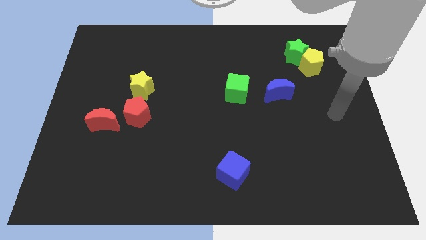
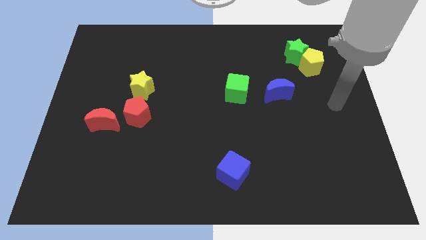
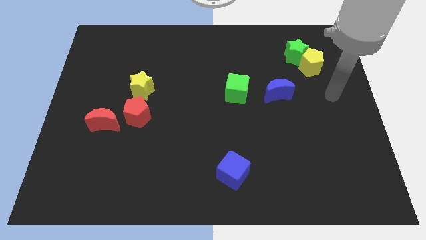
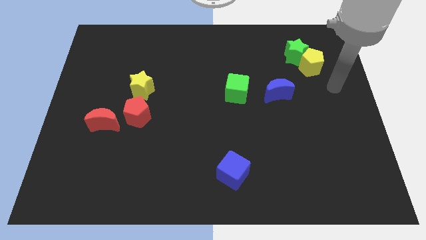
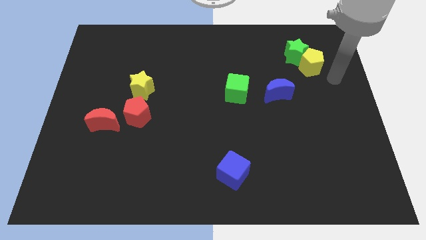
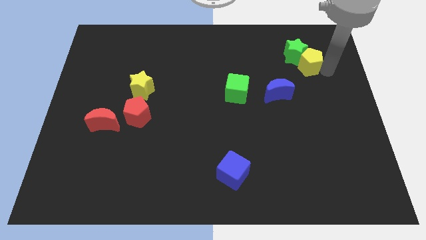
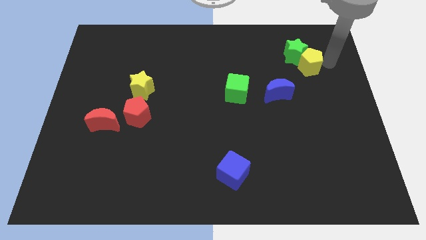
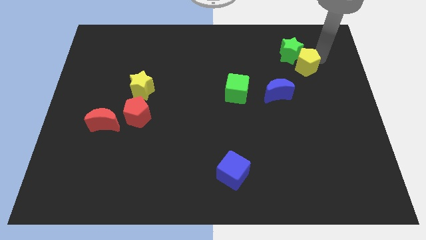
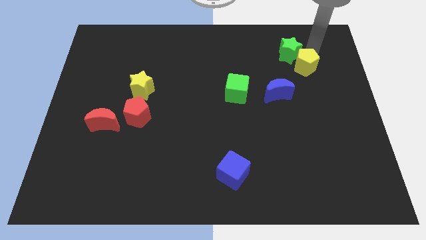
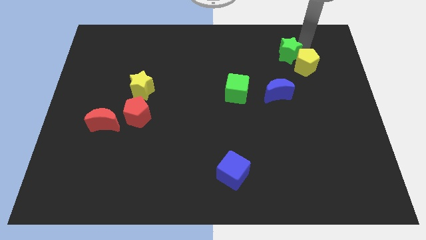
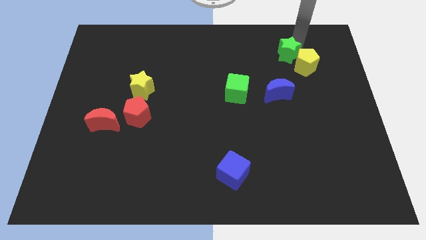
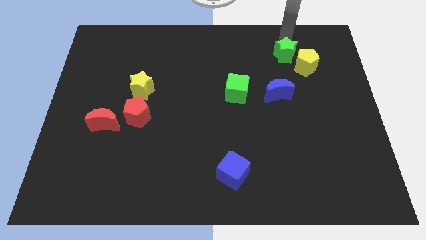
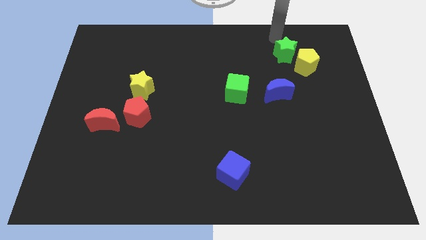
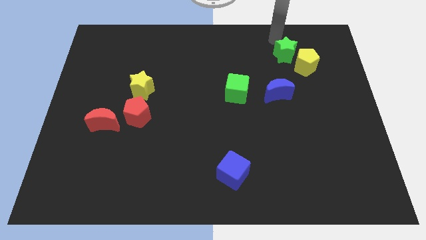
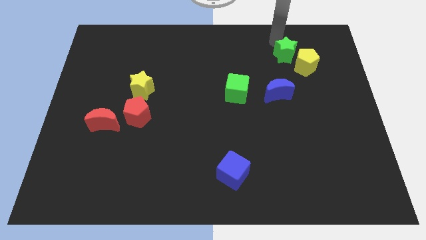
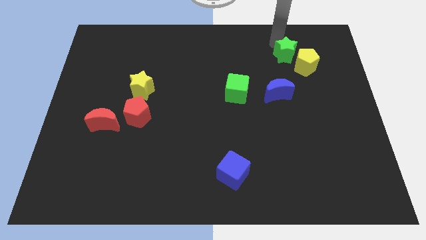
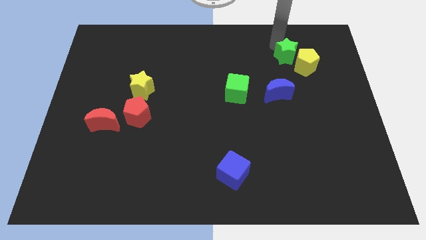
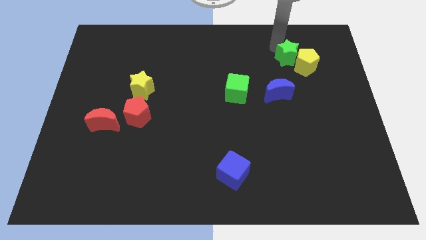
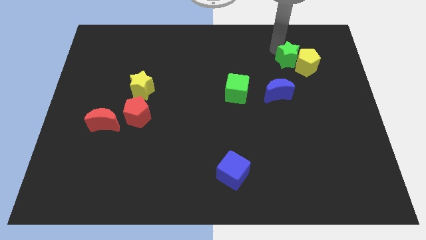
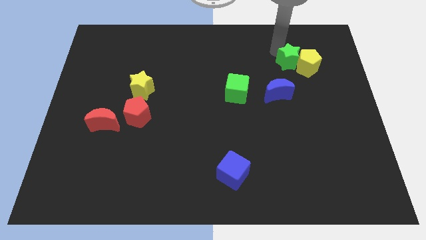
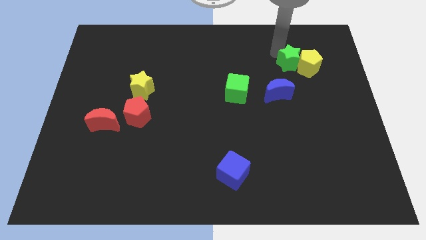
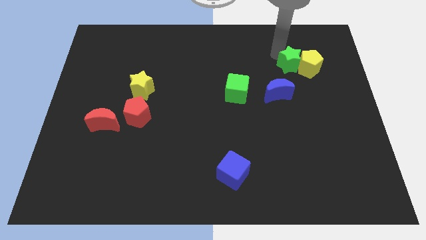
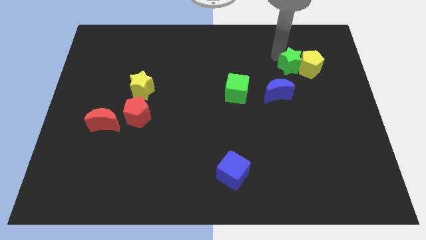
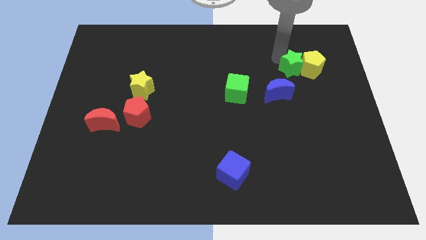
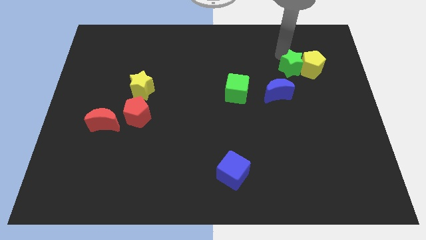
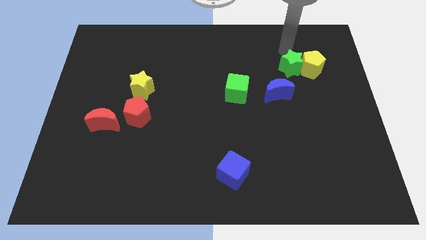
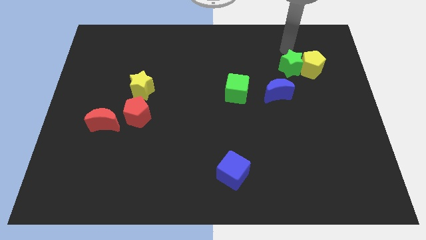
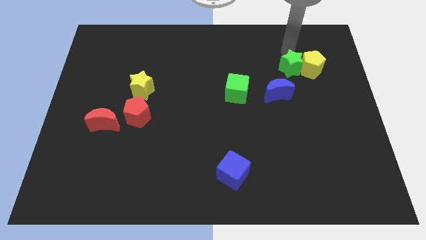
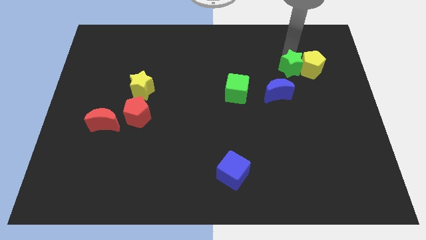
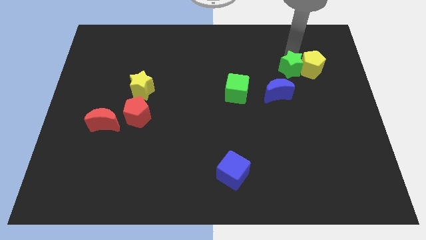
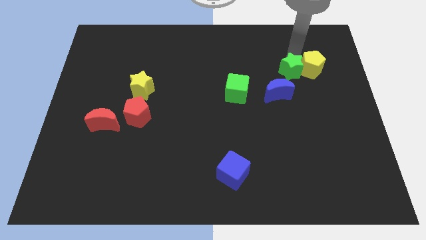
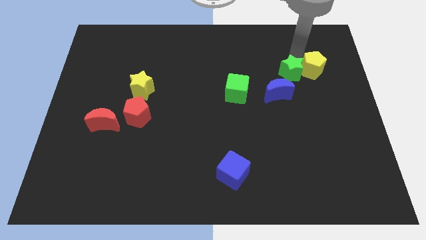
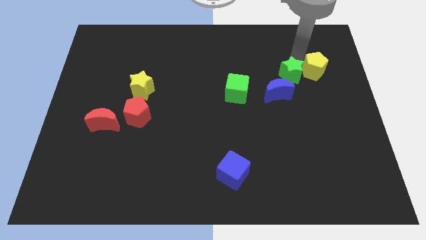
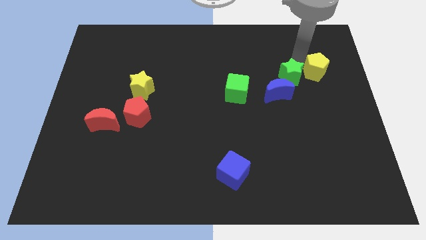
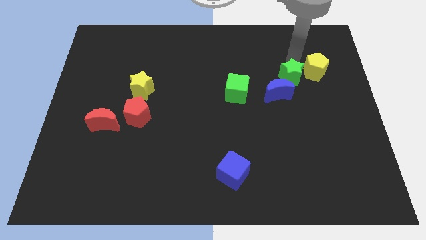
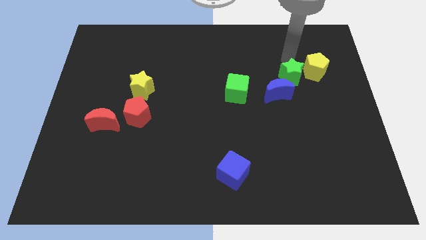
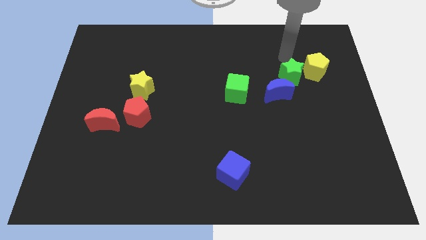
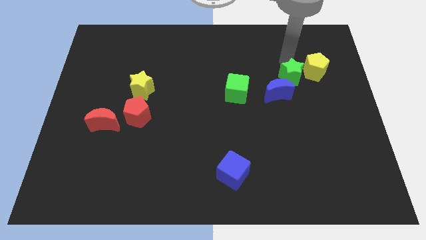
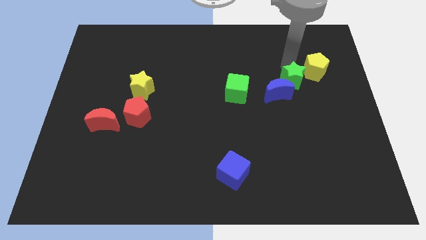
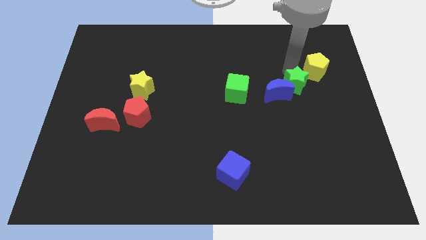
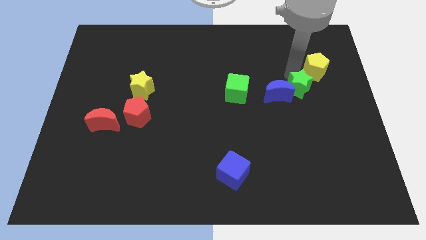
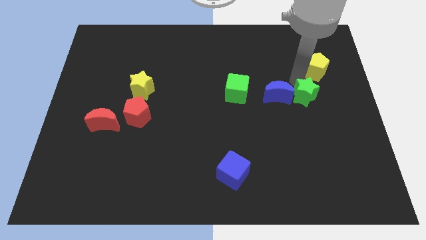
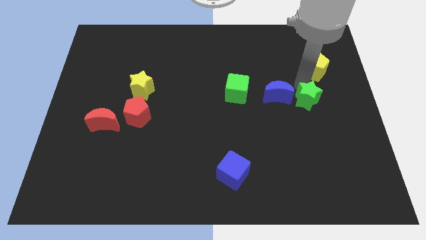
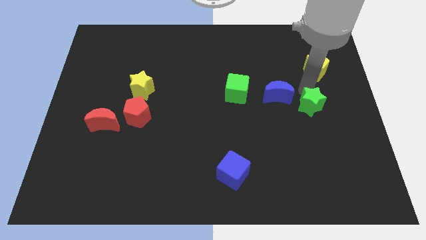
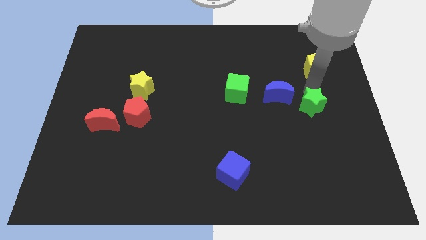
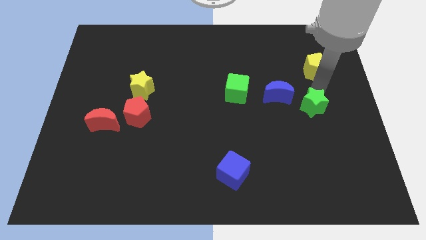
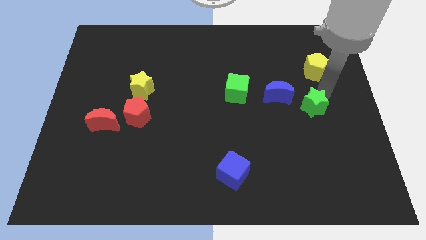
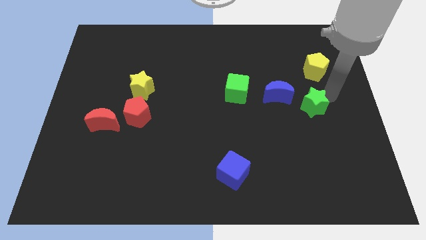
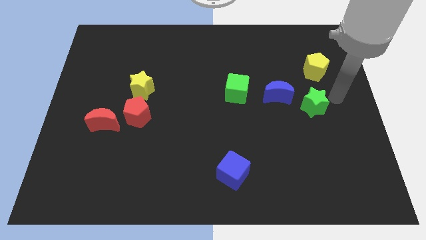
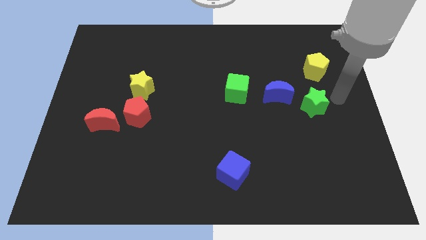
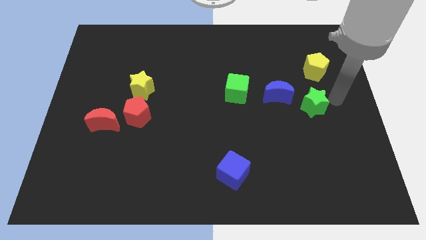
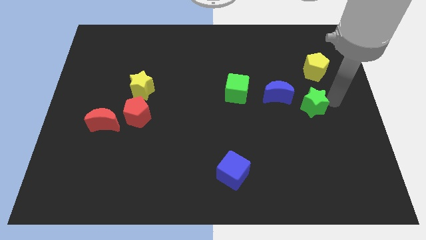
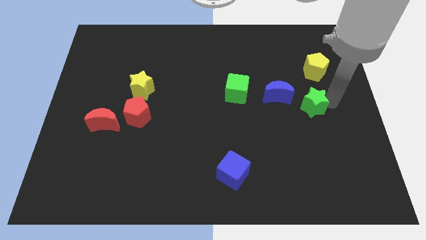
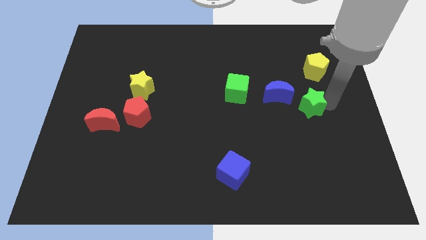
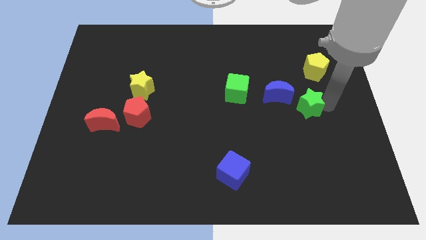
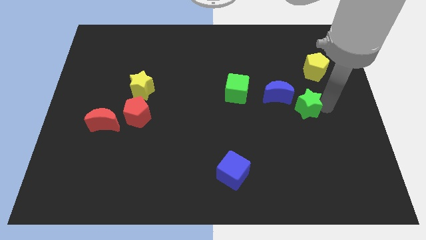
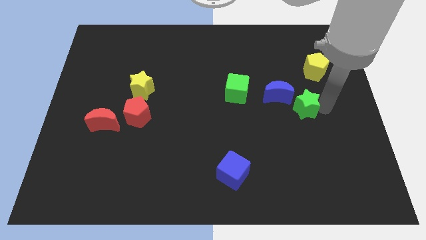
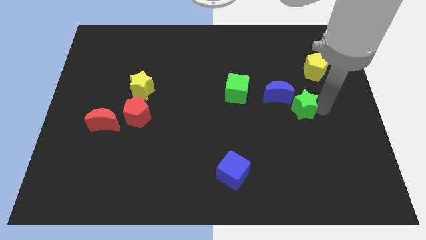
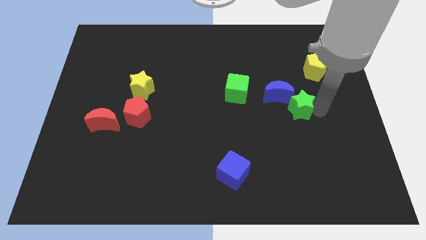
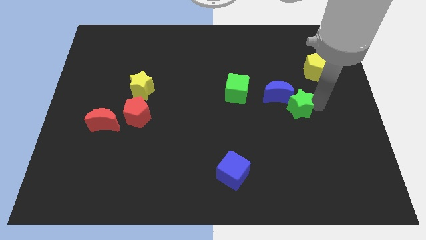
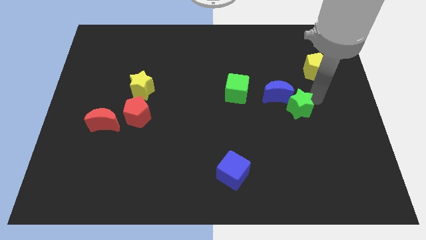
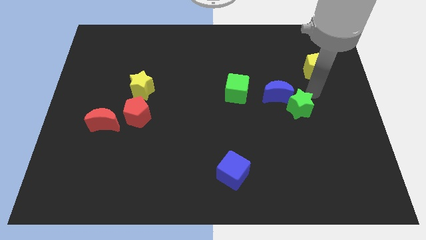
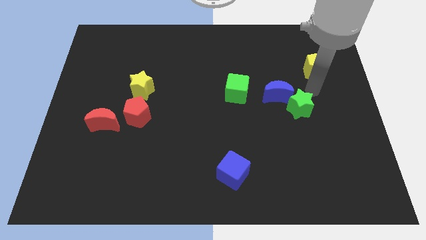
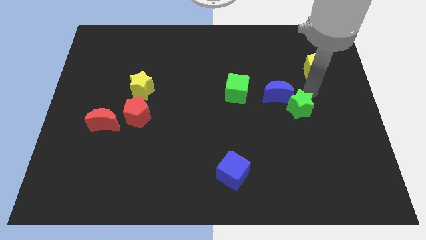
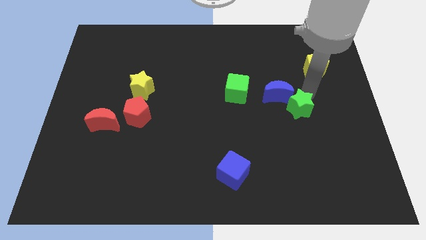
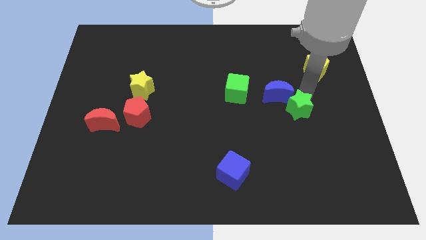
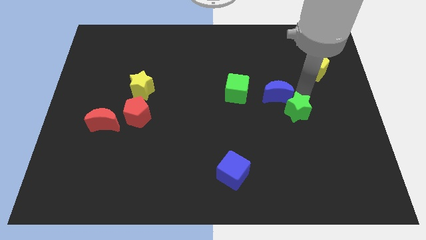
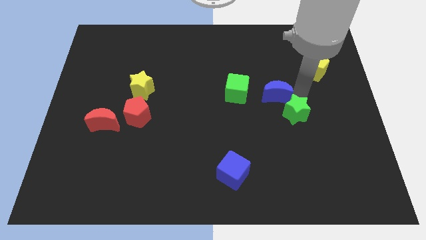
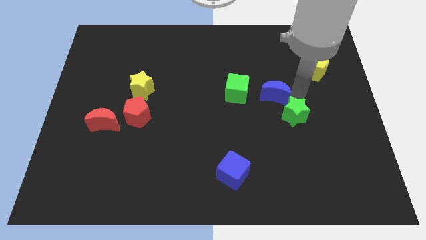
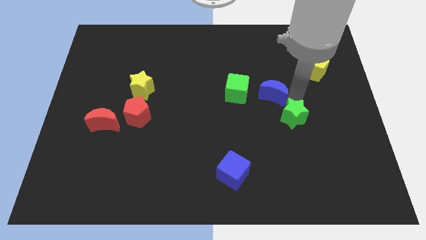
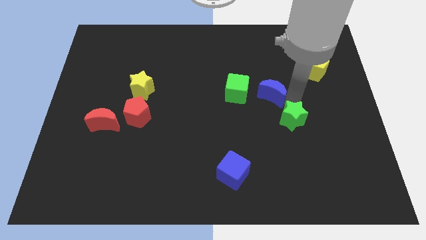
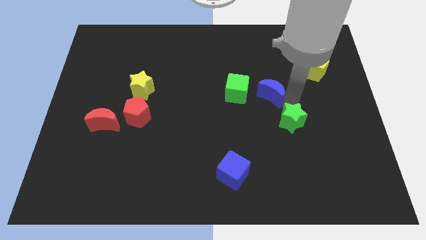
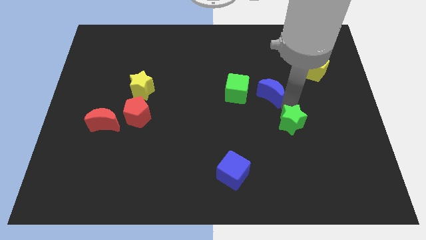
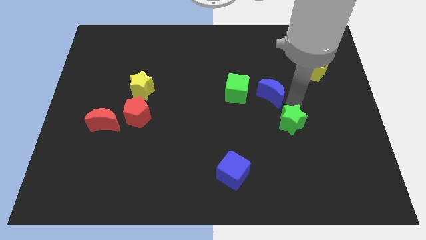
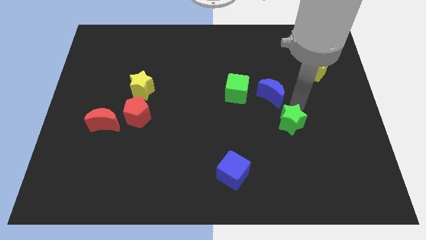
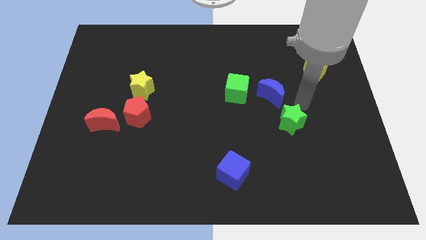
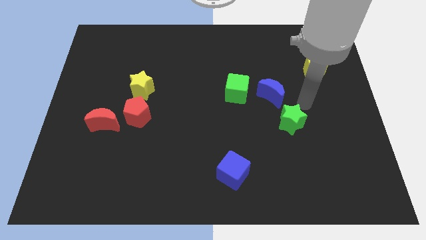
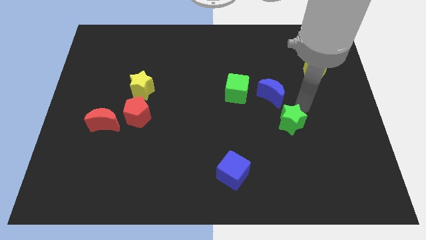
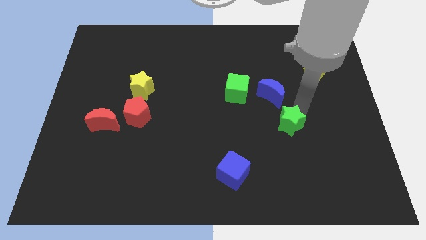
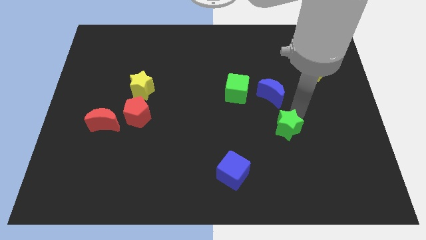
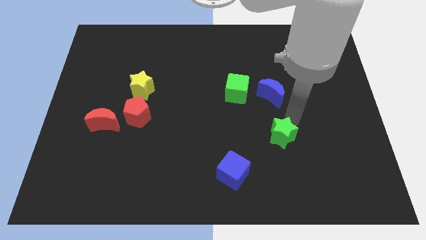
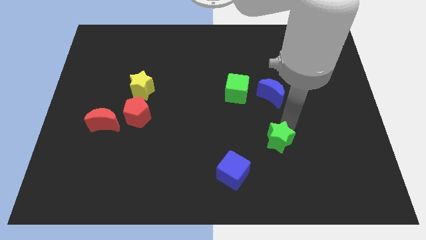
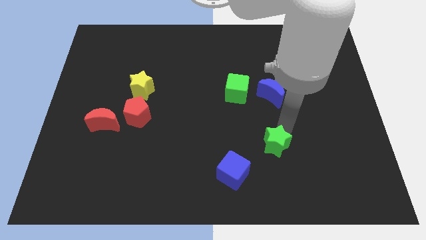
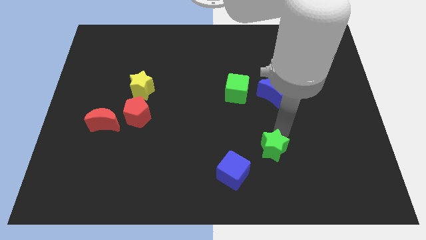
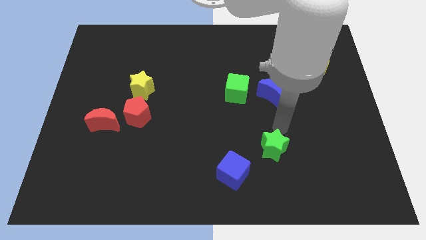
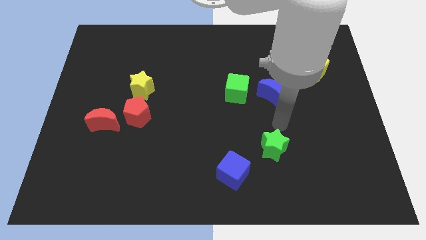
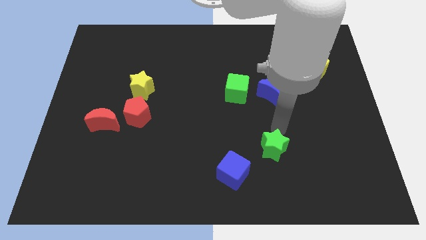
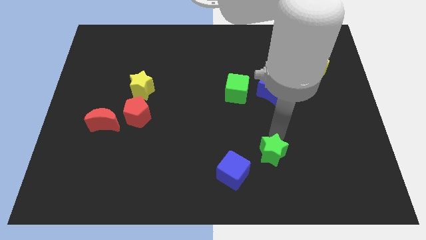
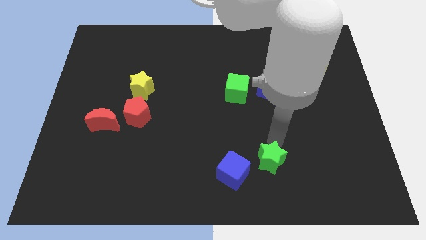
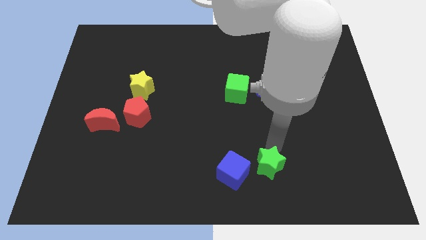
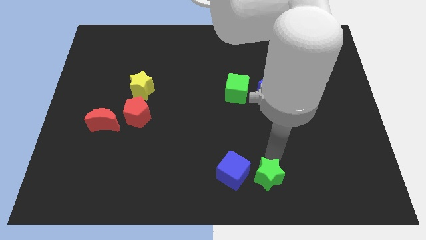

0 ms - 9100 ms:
slide the green star to the bottom
